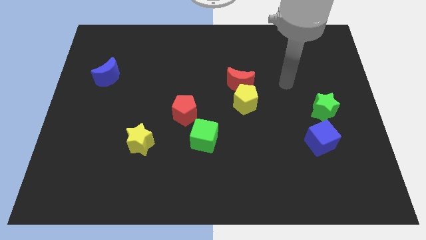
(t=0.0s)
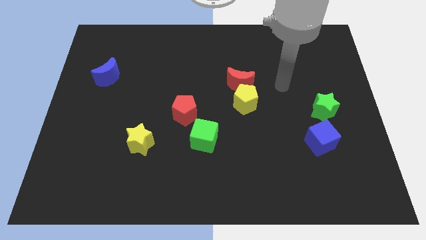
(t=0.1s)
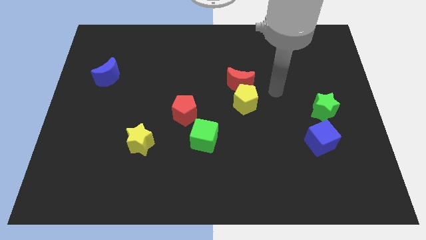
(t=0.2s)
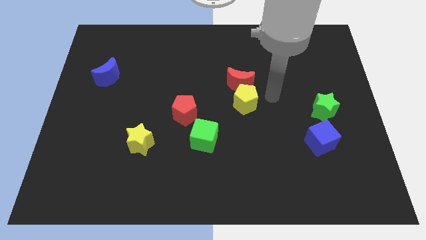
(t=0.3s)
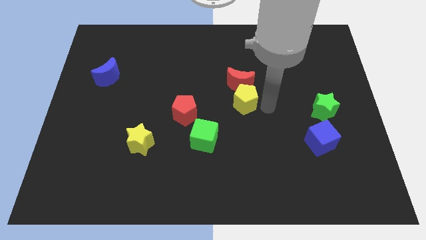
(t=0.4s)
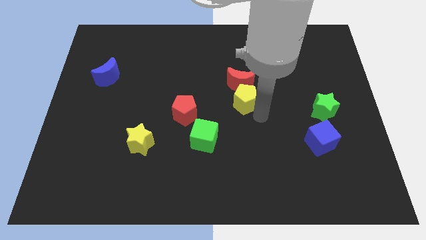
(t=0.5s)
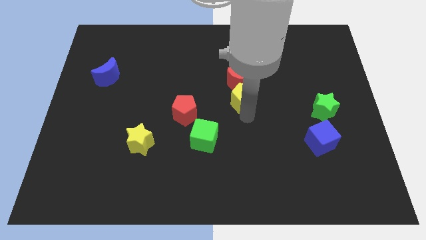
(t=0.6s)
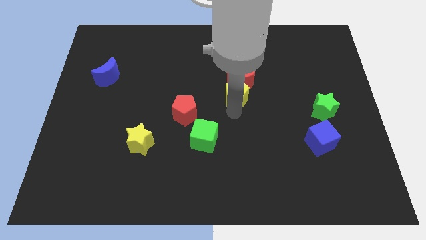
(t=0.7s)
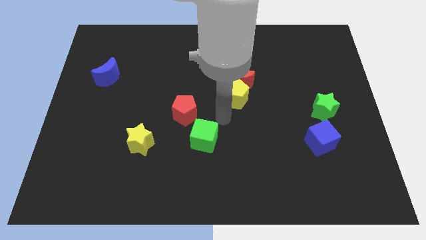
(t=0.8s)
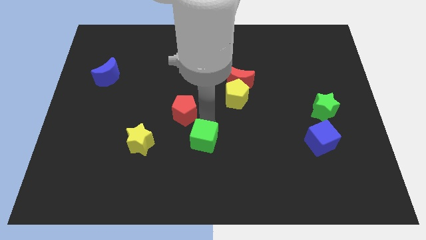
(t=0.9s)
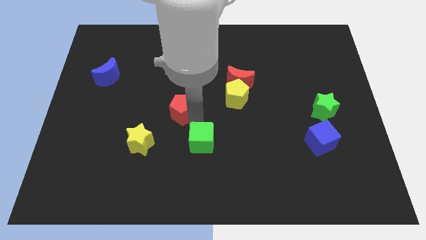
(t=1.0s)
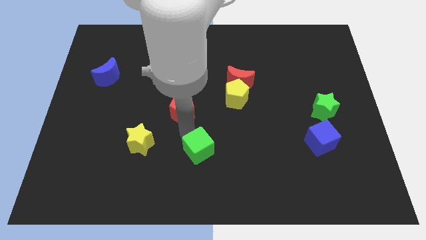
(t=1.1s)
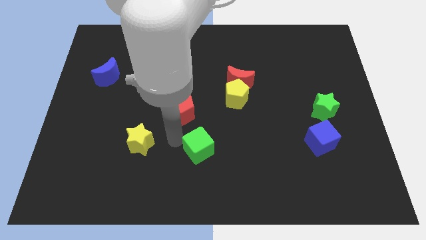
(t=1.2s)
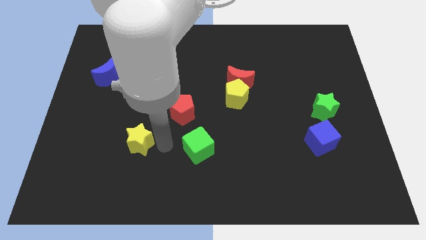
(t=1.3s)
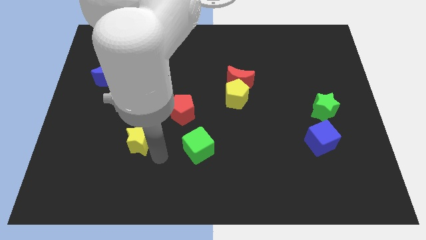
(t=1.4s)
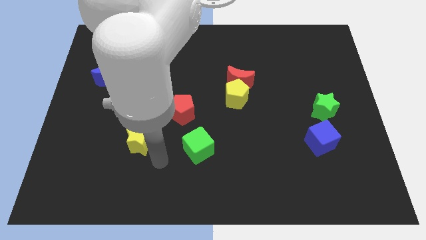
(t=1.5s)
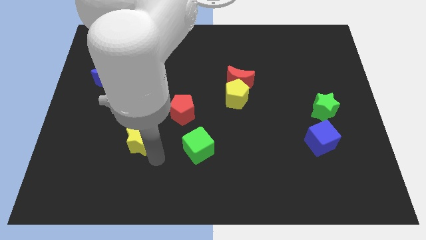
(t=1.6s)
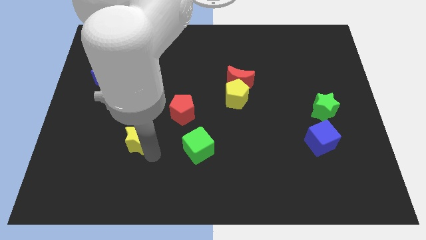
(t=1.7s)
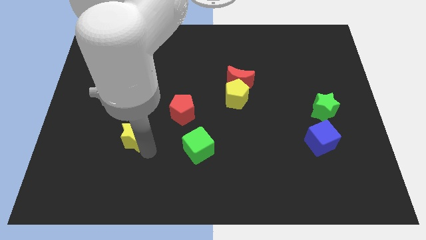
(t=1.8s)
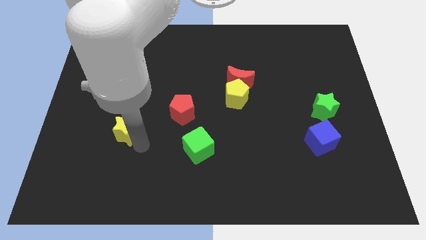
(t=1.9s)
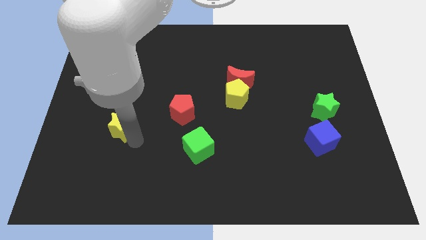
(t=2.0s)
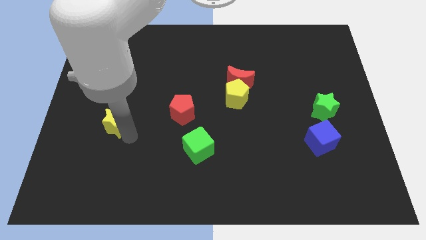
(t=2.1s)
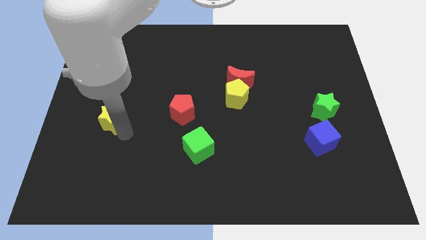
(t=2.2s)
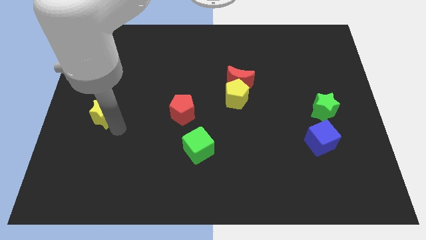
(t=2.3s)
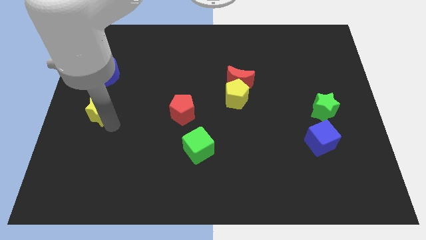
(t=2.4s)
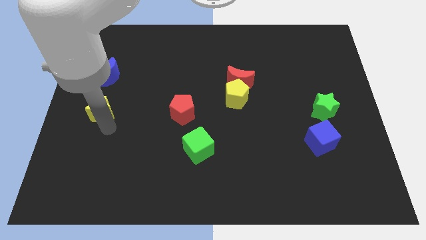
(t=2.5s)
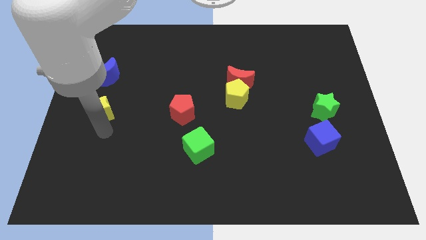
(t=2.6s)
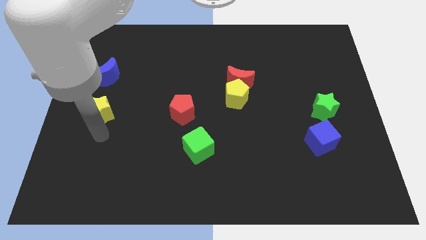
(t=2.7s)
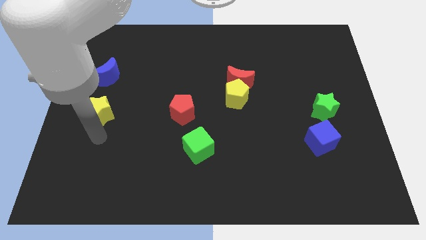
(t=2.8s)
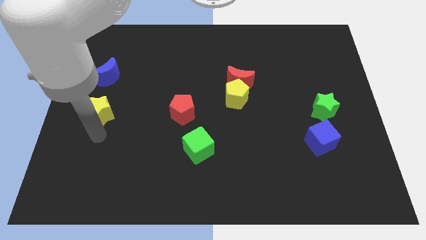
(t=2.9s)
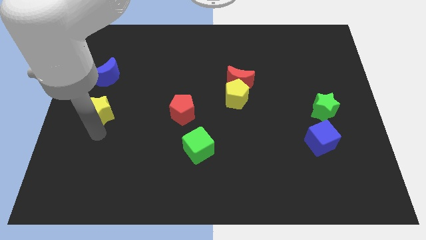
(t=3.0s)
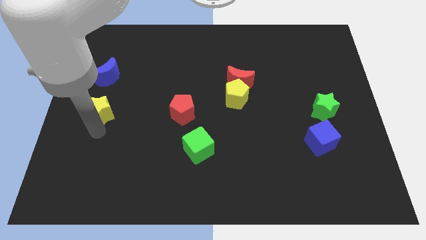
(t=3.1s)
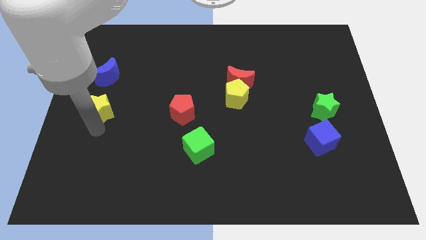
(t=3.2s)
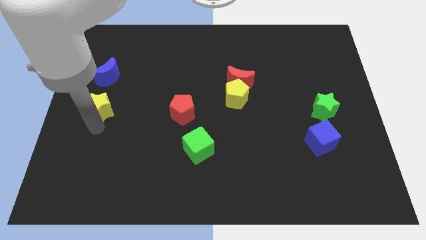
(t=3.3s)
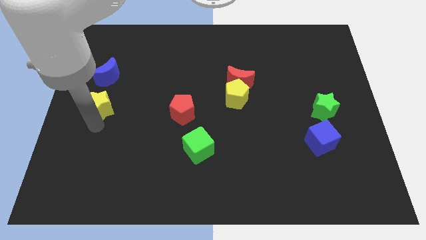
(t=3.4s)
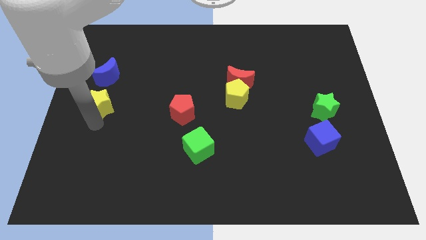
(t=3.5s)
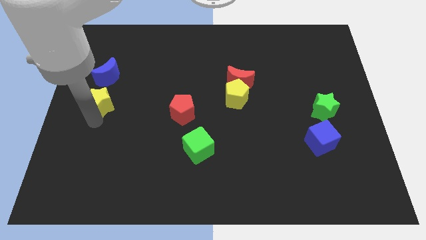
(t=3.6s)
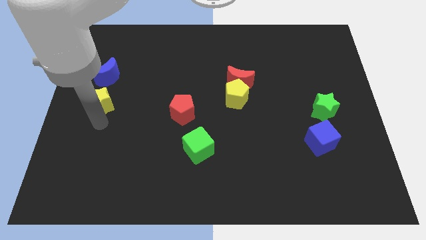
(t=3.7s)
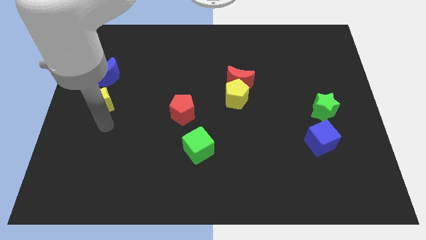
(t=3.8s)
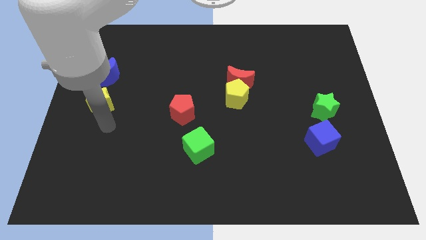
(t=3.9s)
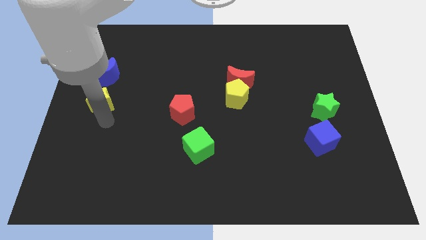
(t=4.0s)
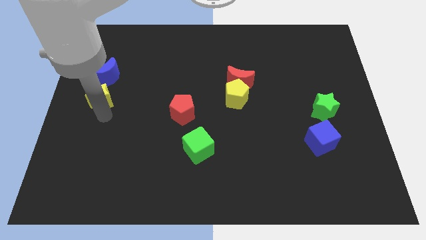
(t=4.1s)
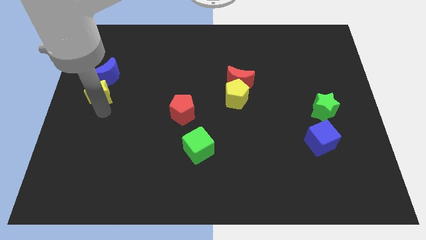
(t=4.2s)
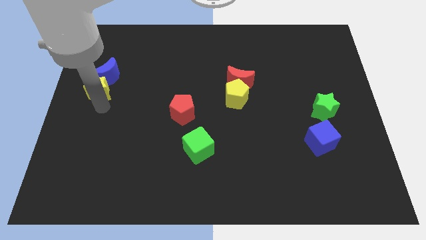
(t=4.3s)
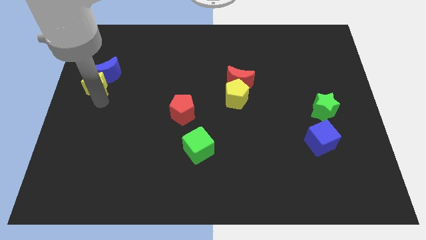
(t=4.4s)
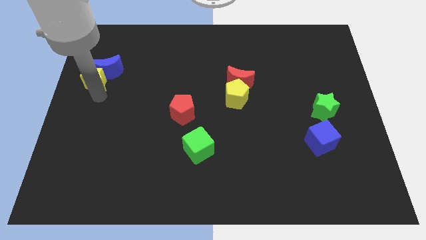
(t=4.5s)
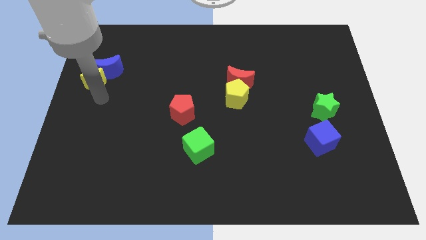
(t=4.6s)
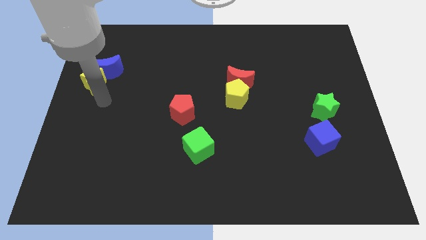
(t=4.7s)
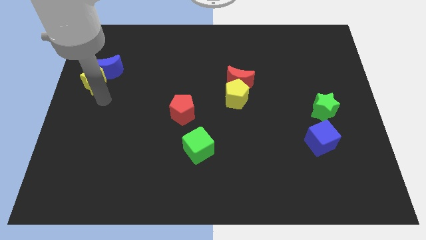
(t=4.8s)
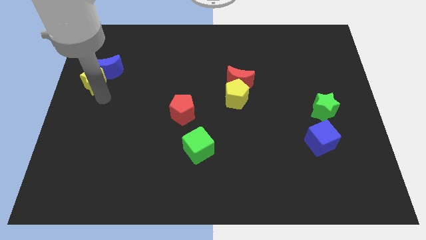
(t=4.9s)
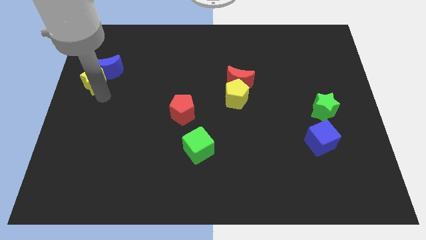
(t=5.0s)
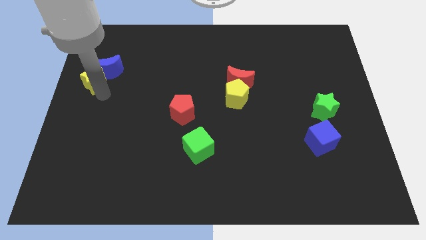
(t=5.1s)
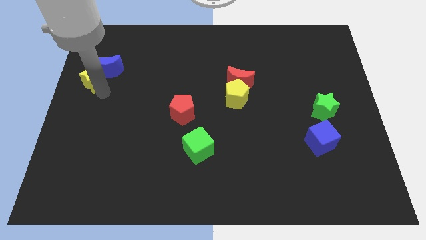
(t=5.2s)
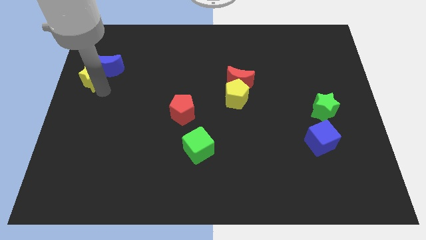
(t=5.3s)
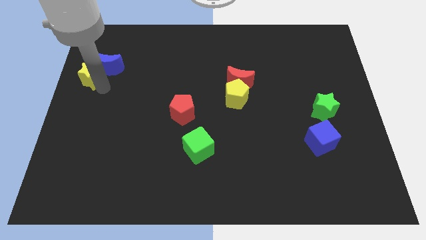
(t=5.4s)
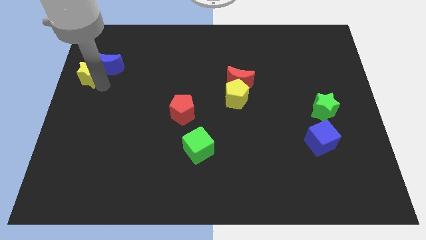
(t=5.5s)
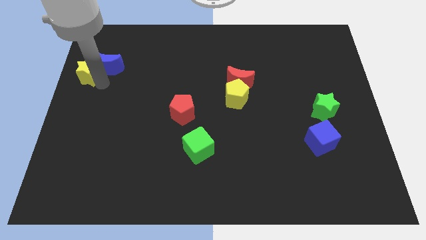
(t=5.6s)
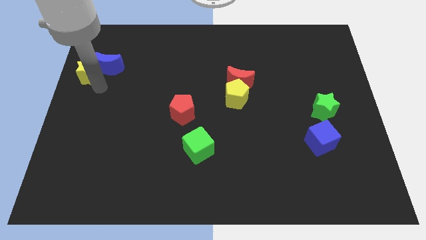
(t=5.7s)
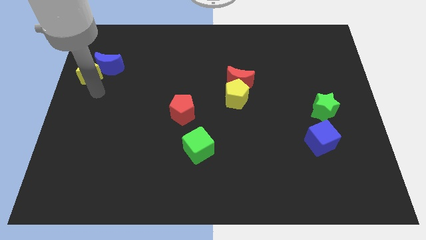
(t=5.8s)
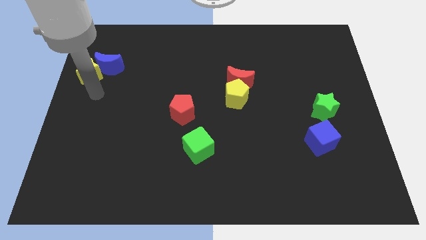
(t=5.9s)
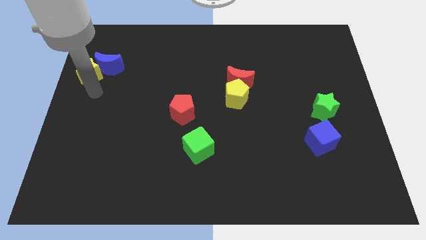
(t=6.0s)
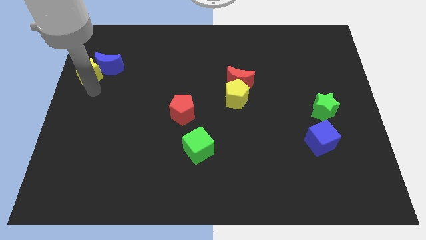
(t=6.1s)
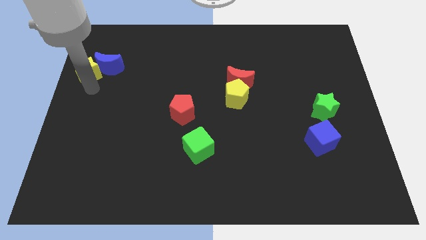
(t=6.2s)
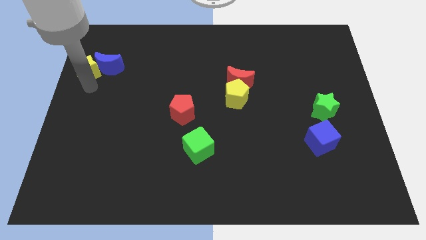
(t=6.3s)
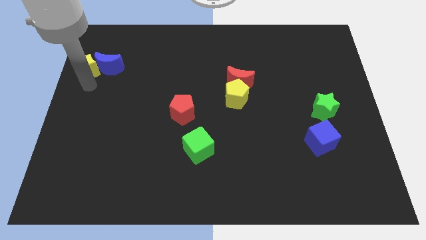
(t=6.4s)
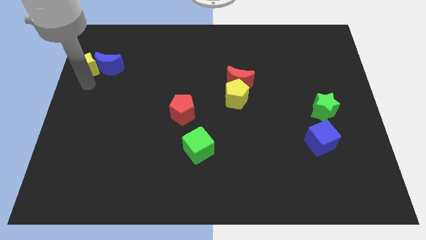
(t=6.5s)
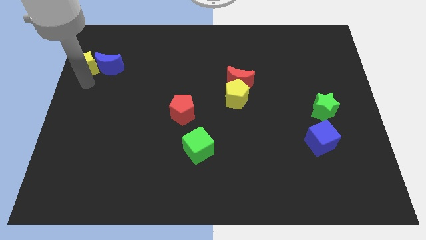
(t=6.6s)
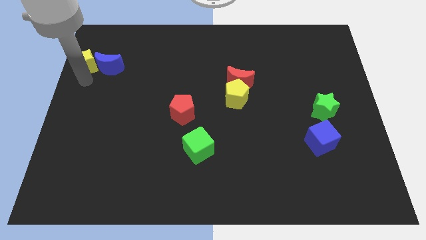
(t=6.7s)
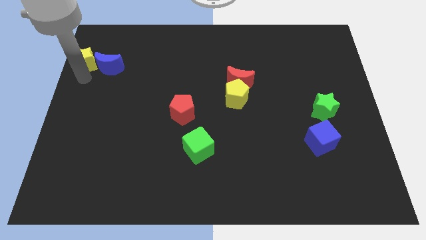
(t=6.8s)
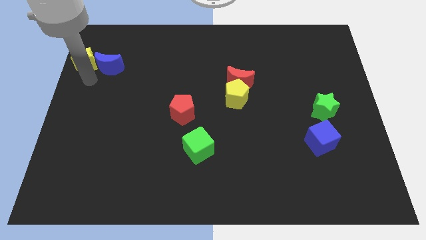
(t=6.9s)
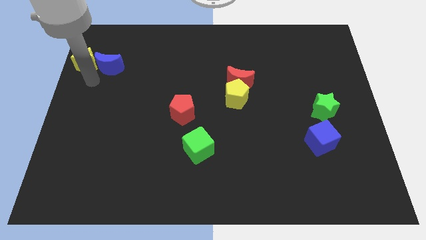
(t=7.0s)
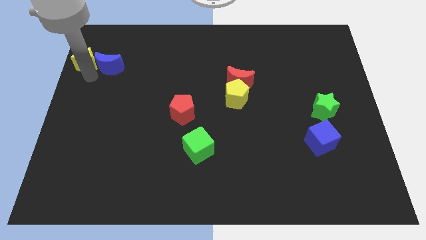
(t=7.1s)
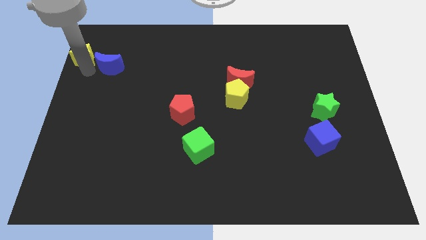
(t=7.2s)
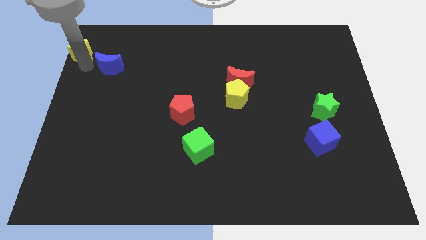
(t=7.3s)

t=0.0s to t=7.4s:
push the yellow star to the top left of the board
